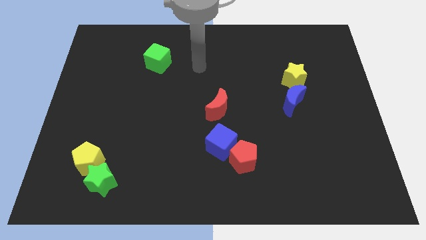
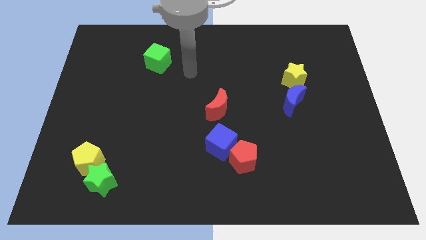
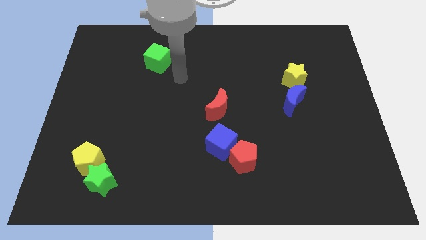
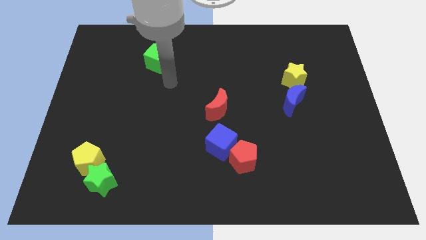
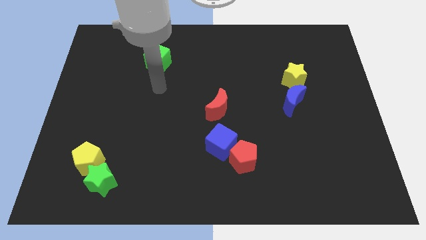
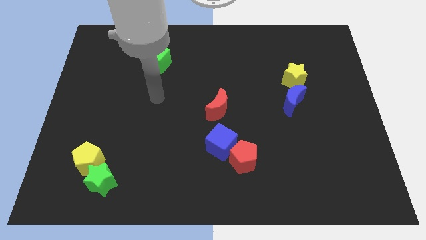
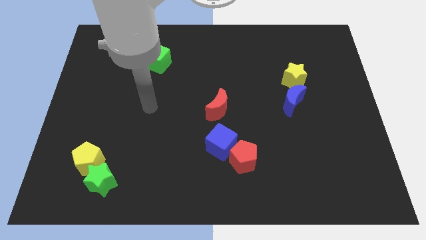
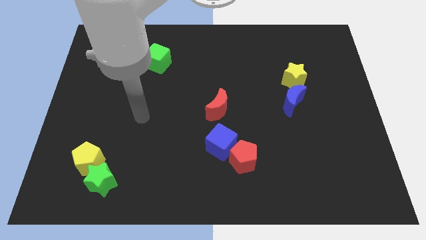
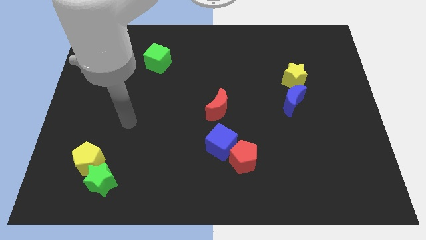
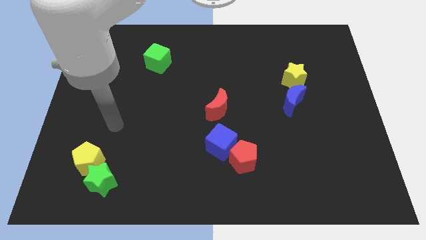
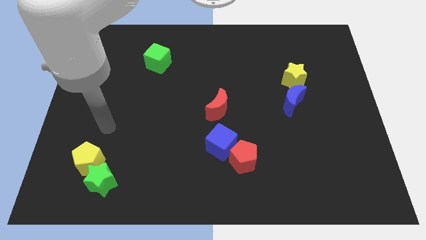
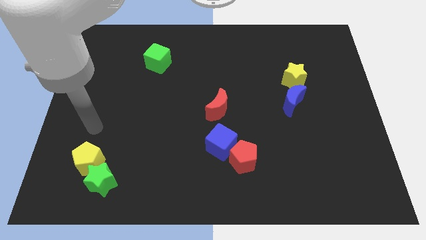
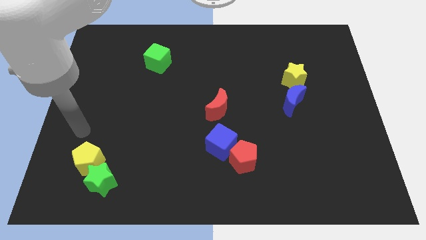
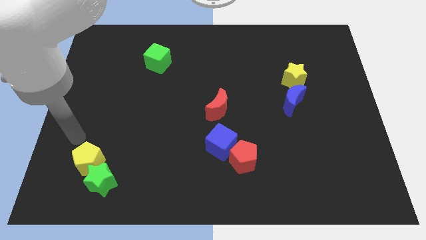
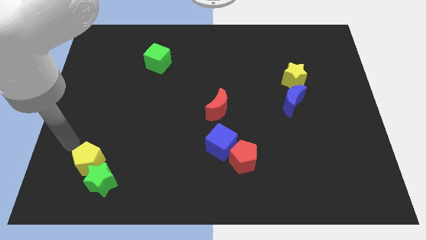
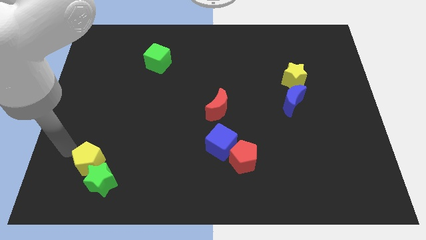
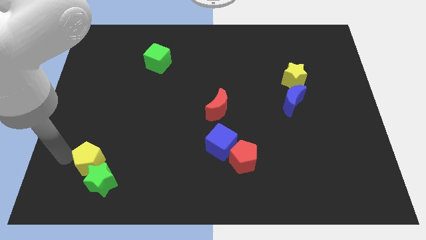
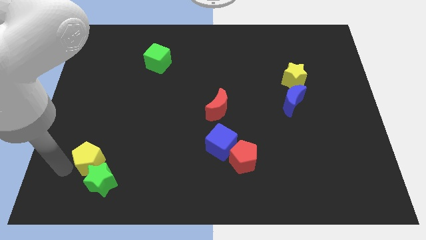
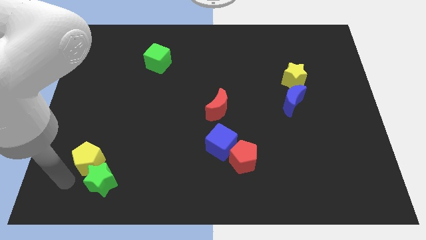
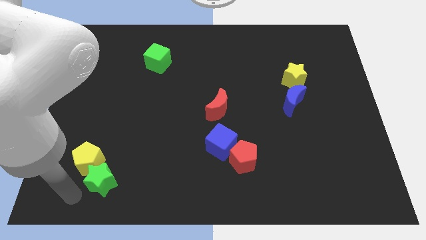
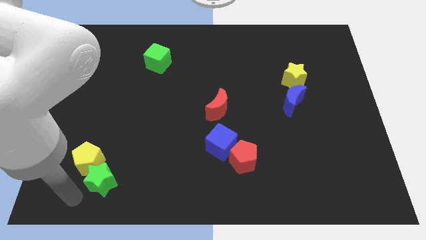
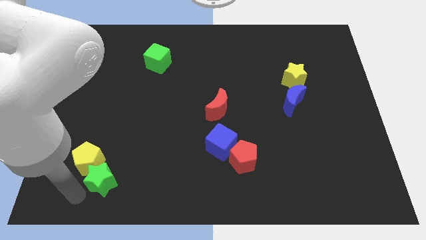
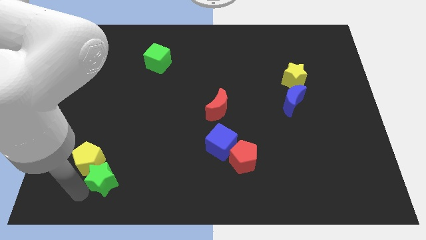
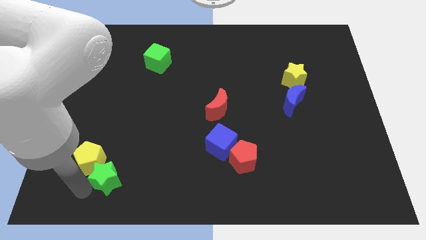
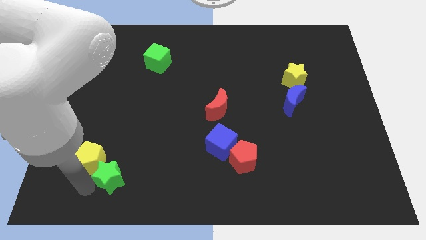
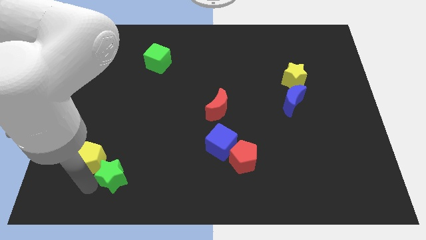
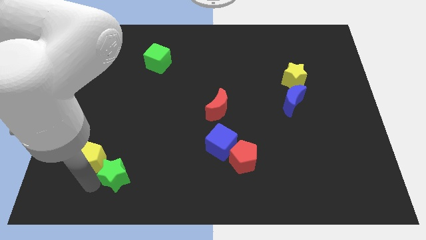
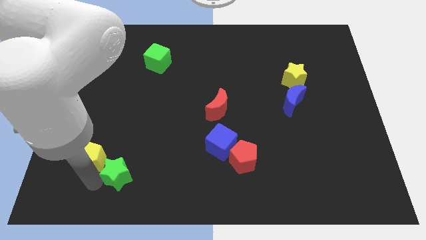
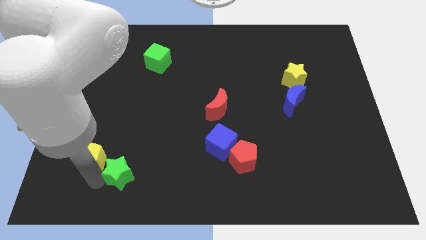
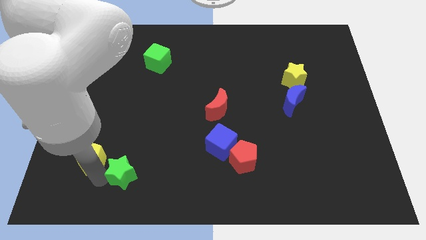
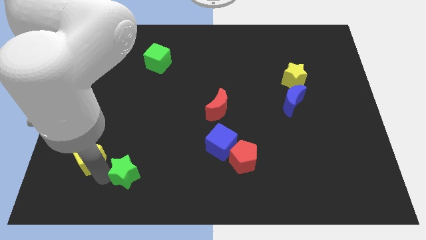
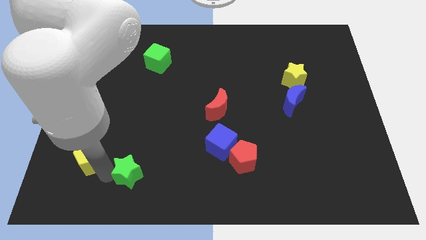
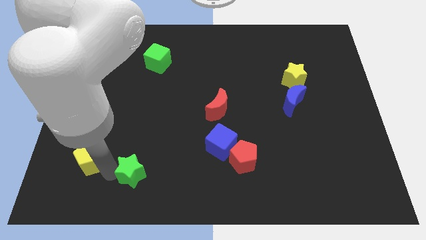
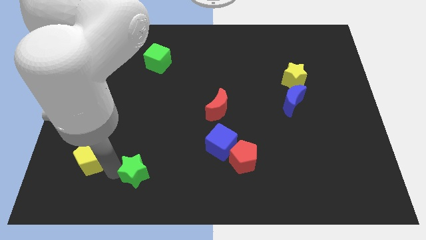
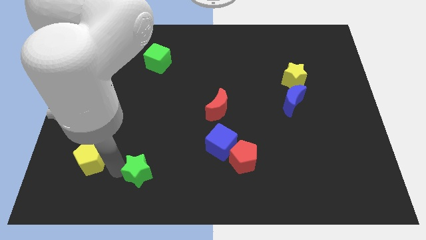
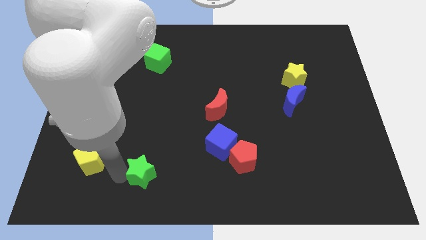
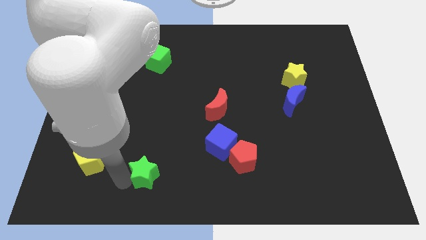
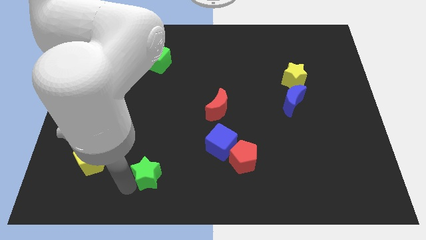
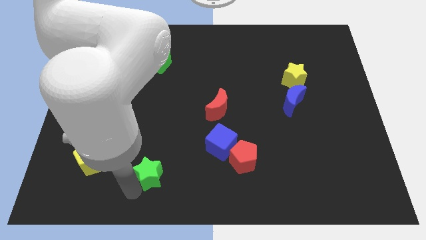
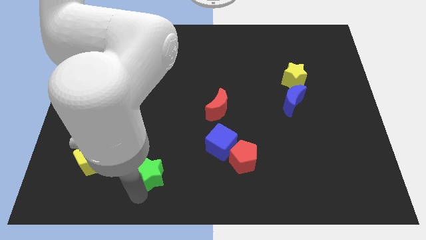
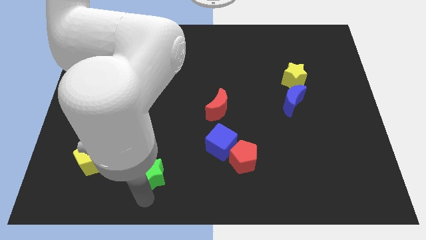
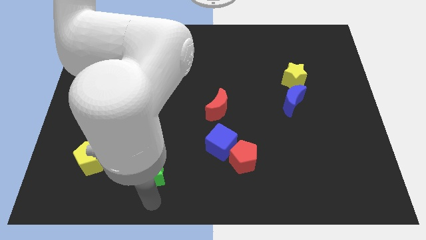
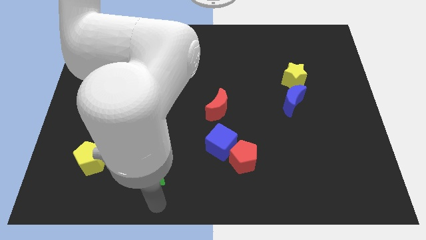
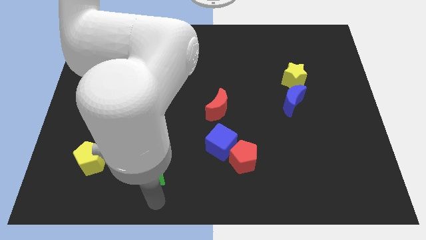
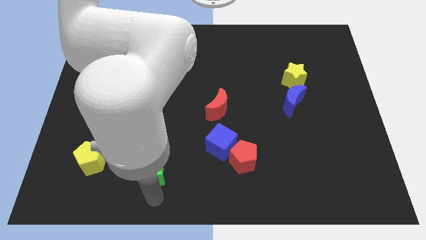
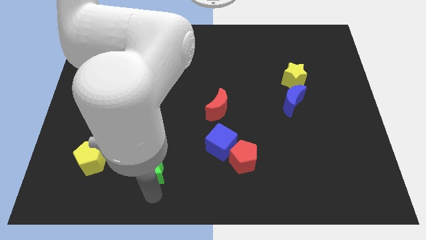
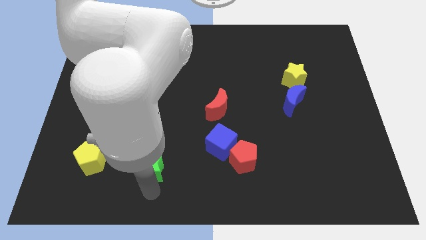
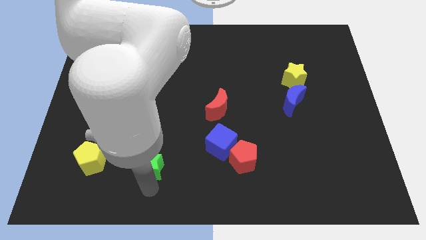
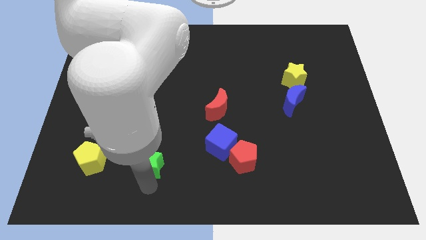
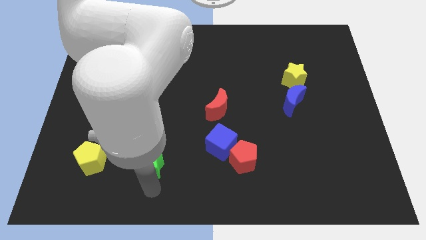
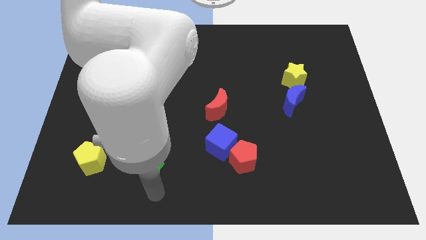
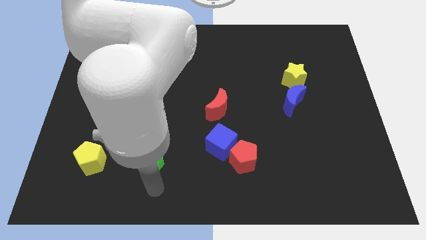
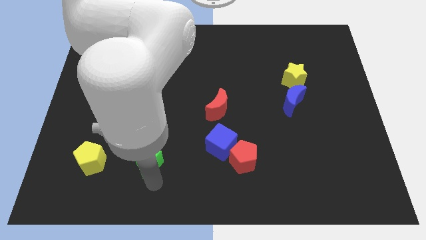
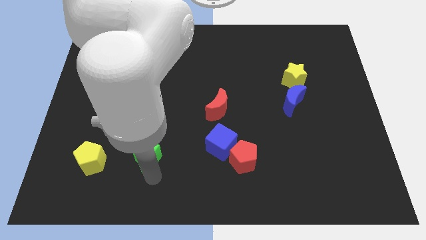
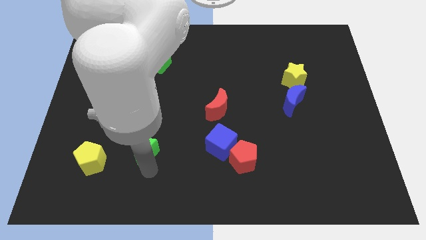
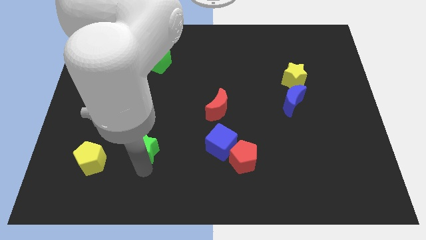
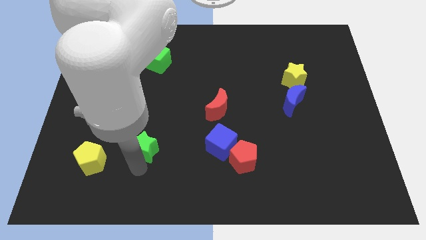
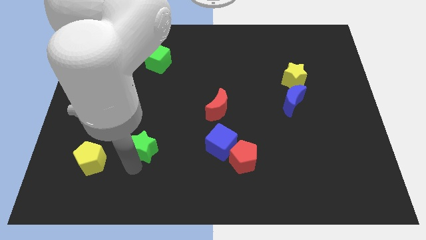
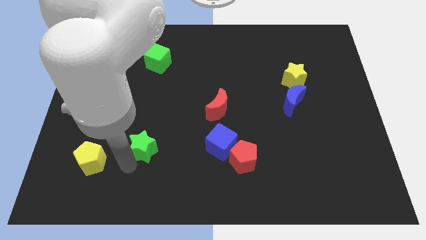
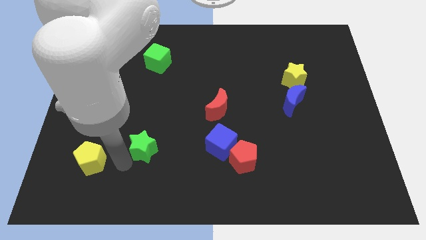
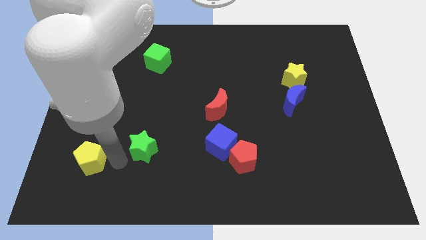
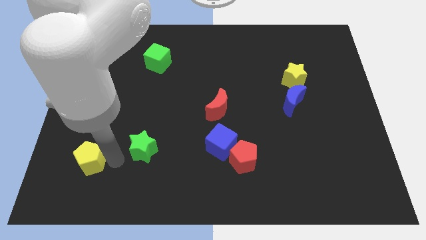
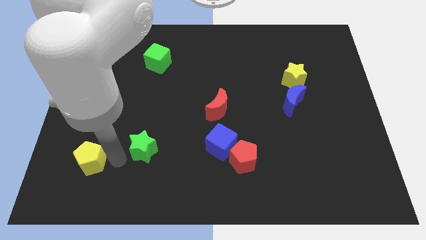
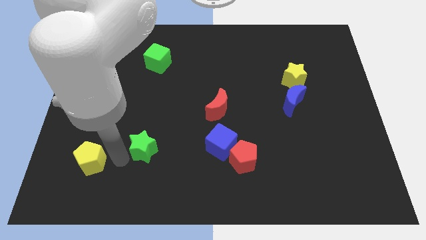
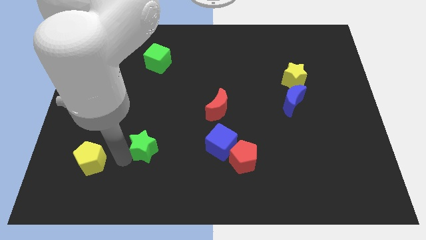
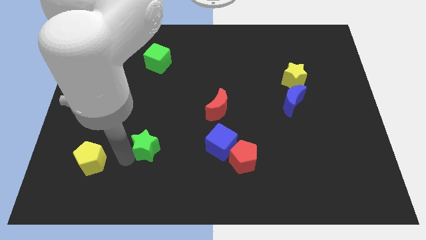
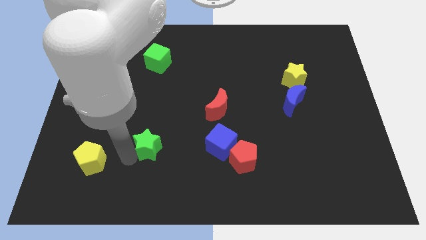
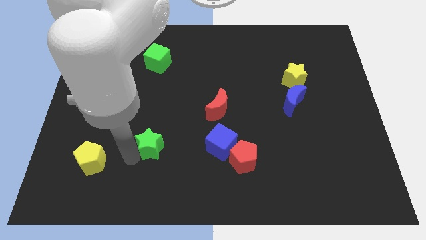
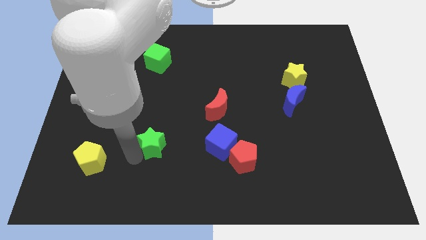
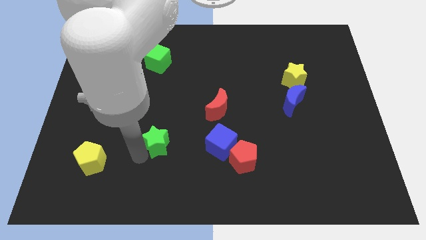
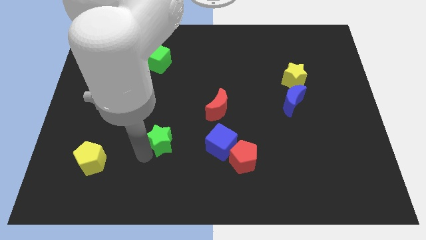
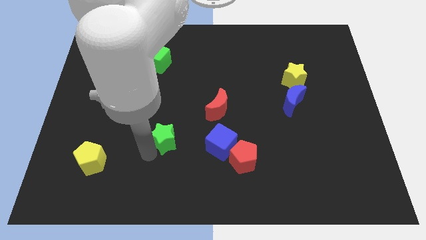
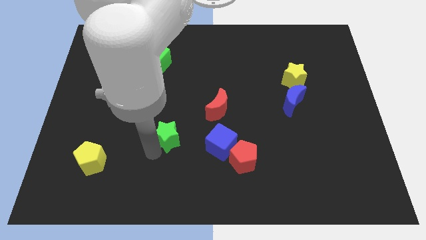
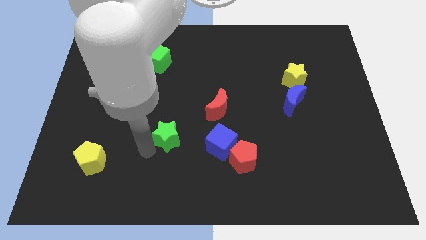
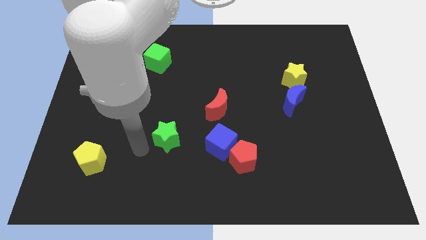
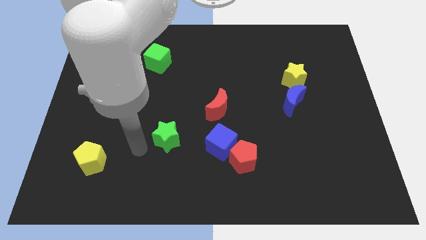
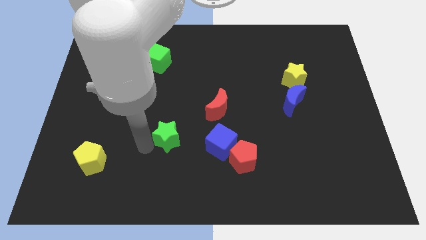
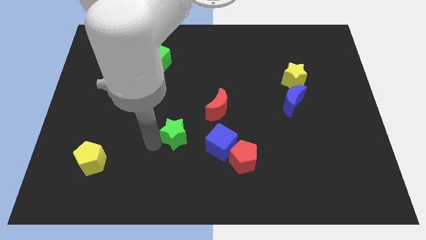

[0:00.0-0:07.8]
move the green star to the bottom left side of the red moon
